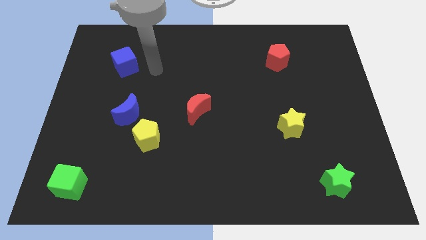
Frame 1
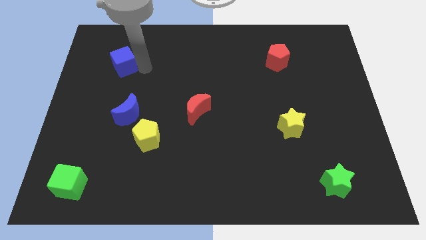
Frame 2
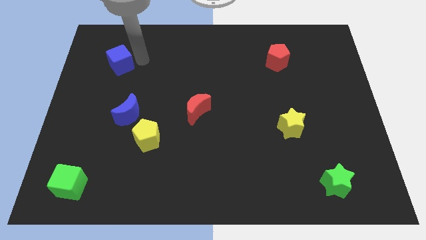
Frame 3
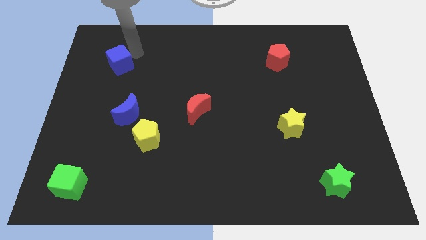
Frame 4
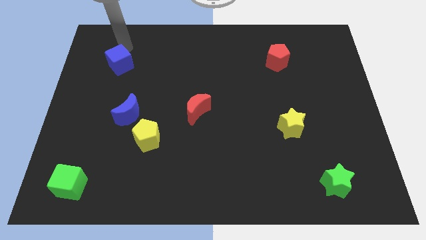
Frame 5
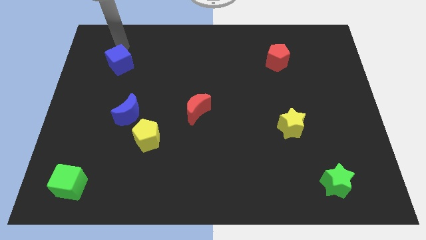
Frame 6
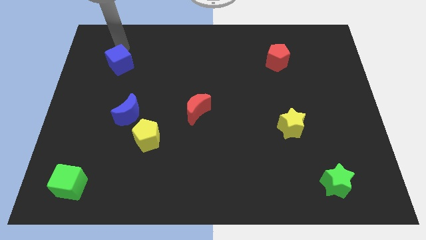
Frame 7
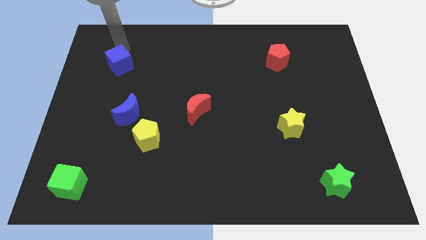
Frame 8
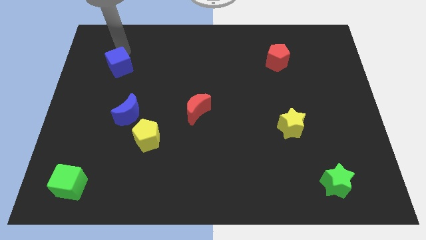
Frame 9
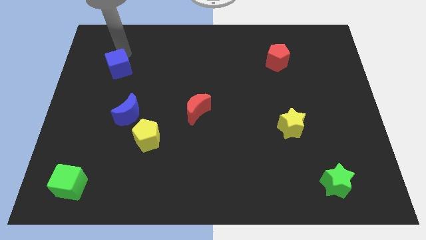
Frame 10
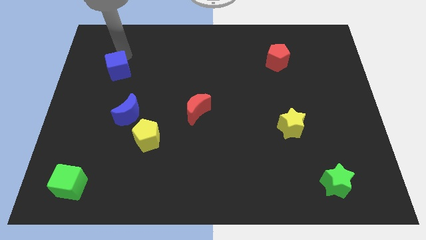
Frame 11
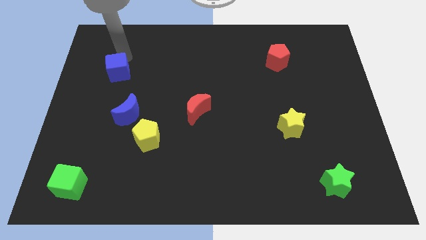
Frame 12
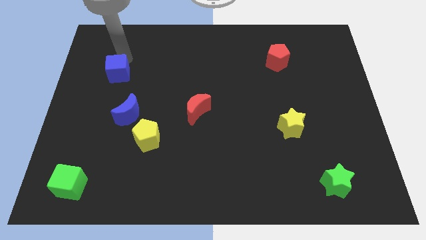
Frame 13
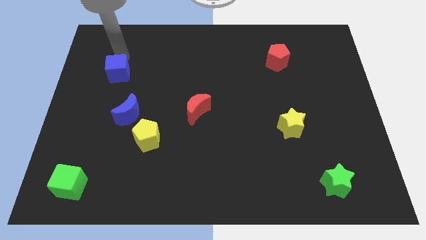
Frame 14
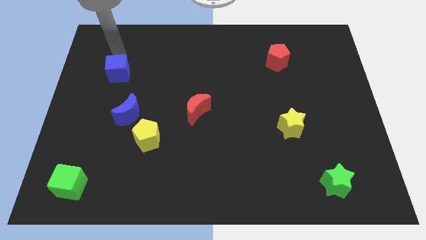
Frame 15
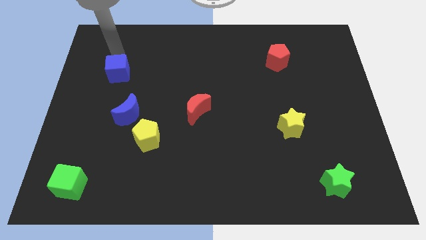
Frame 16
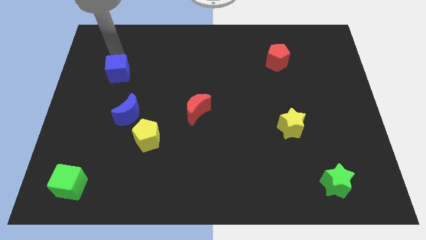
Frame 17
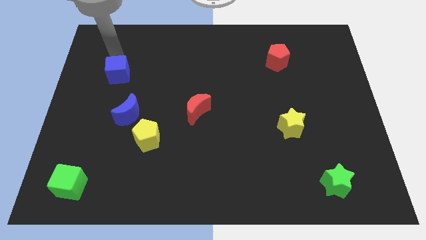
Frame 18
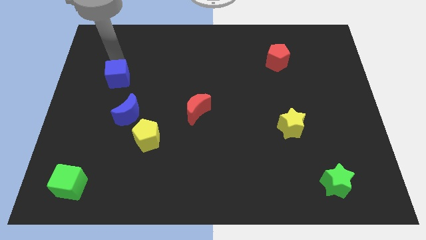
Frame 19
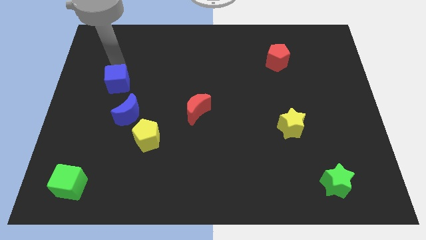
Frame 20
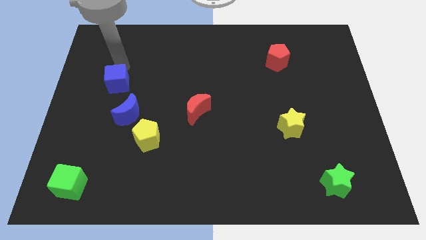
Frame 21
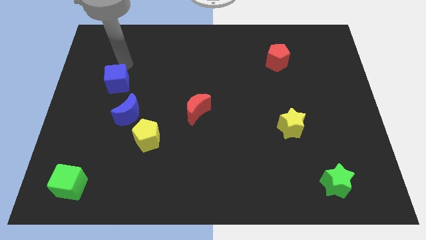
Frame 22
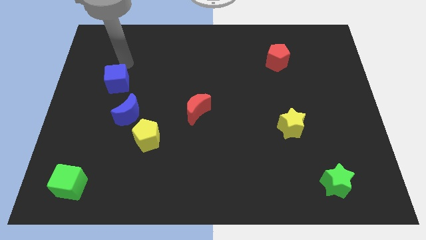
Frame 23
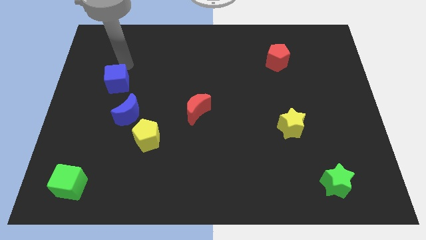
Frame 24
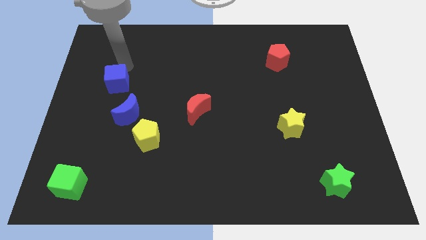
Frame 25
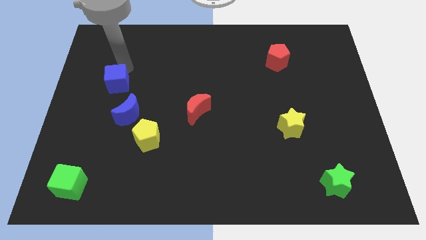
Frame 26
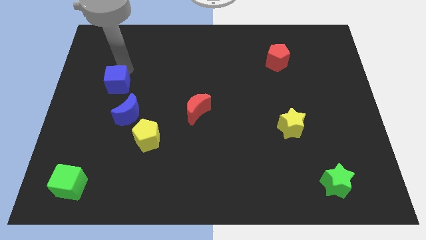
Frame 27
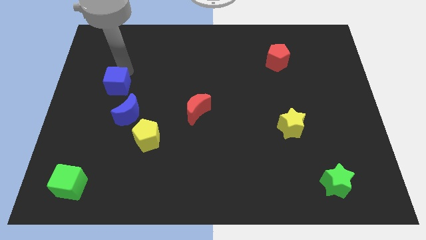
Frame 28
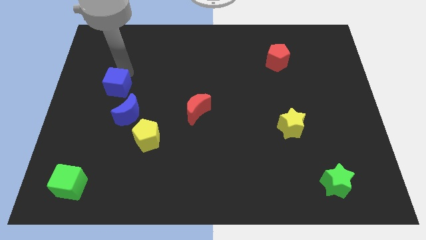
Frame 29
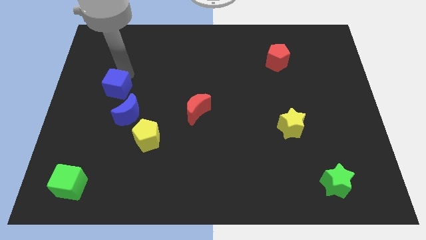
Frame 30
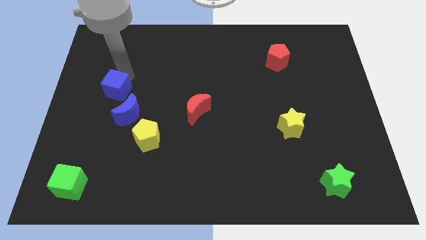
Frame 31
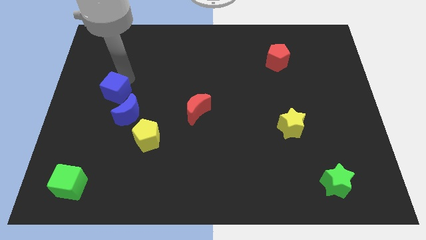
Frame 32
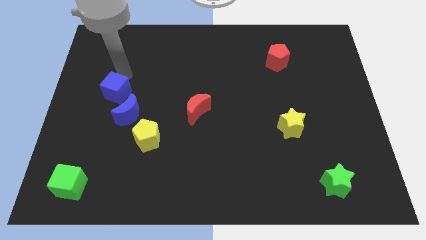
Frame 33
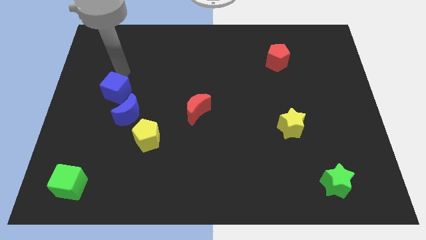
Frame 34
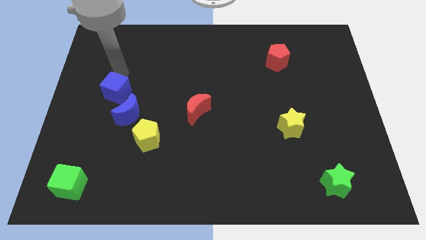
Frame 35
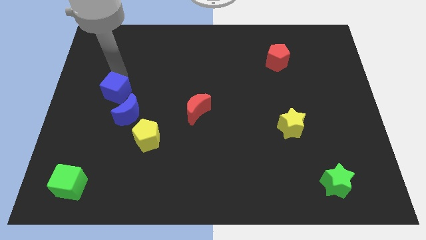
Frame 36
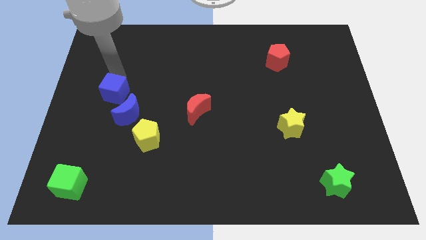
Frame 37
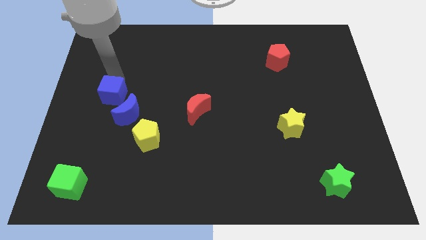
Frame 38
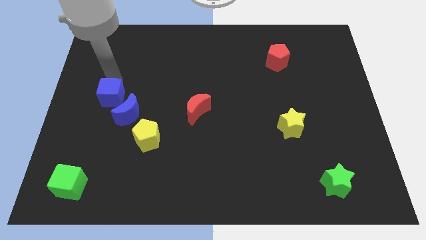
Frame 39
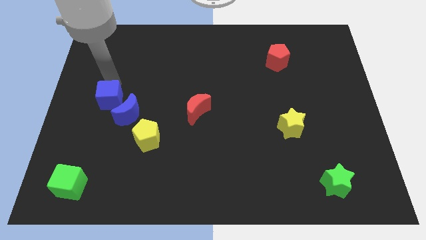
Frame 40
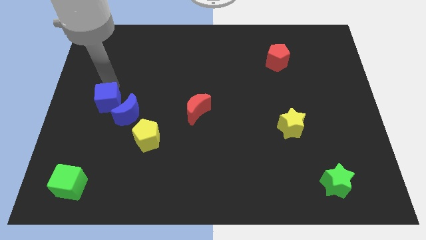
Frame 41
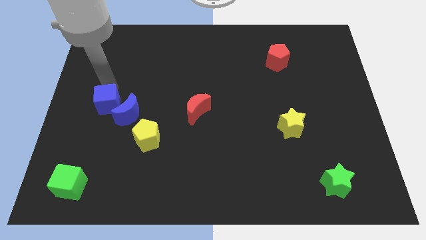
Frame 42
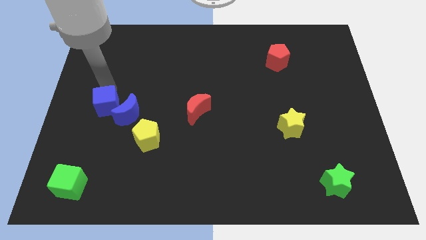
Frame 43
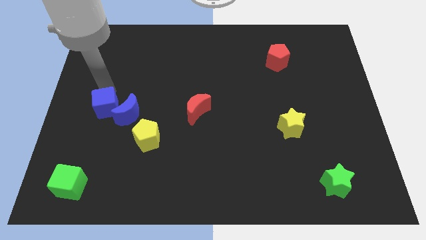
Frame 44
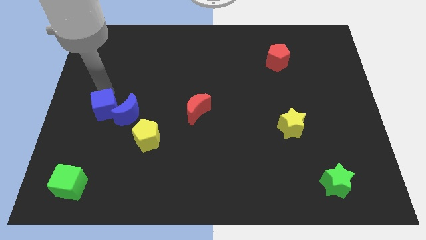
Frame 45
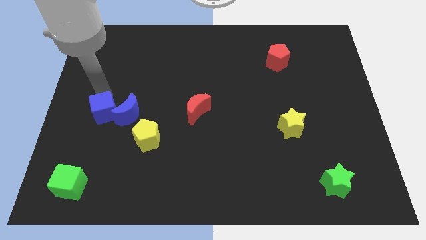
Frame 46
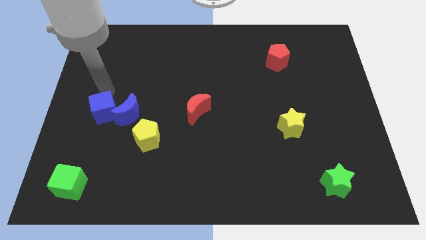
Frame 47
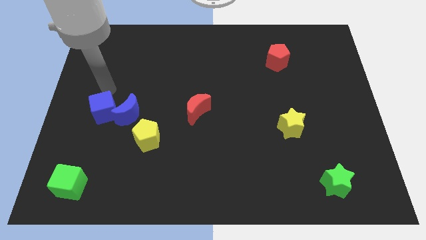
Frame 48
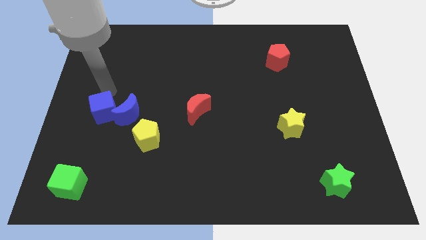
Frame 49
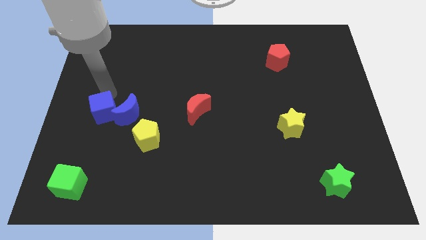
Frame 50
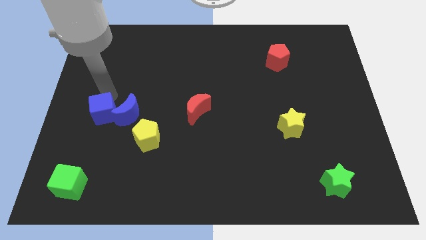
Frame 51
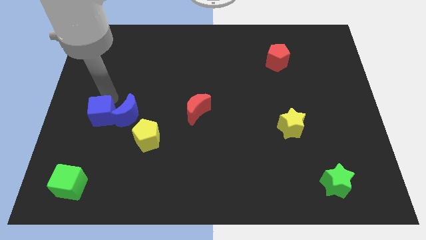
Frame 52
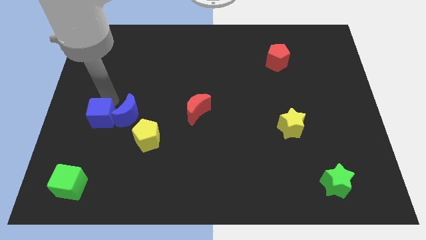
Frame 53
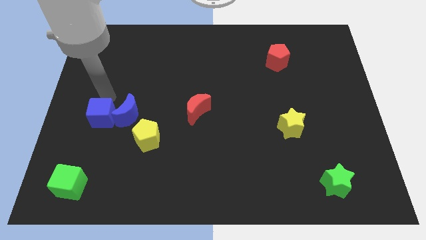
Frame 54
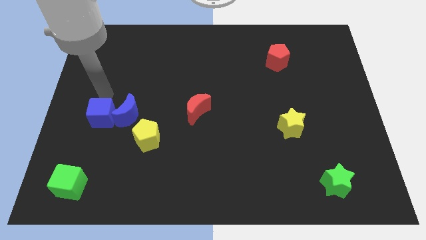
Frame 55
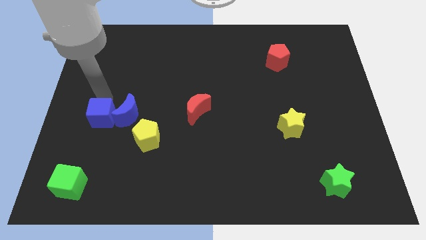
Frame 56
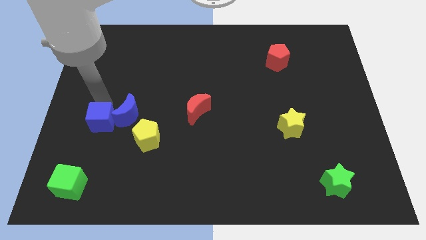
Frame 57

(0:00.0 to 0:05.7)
slide the blue cube left of the yellow pentagon

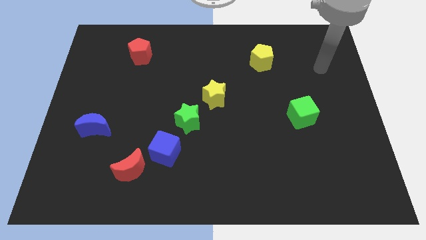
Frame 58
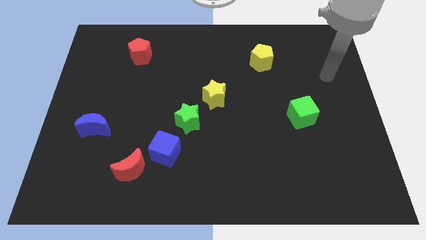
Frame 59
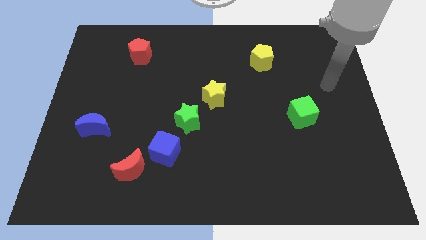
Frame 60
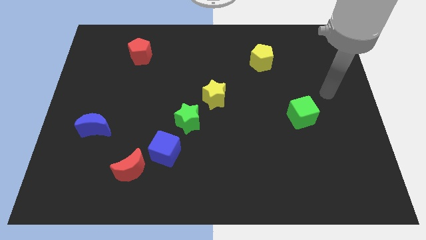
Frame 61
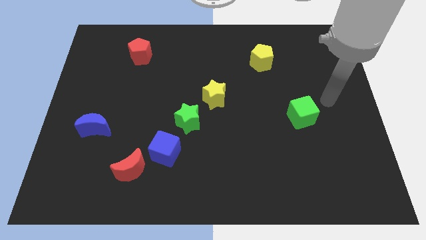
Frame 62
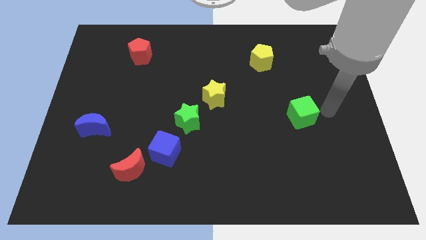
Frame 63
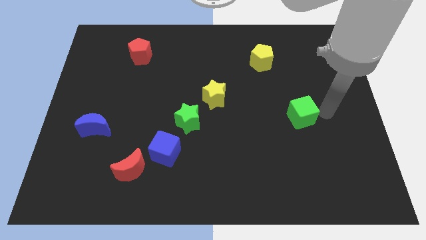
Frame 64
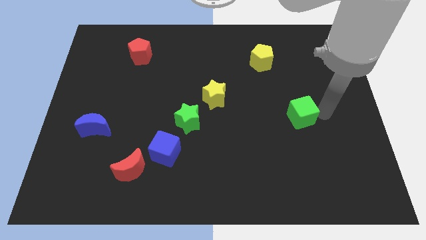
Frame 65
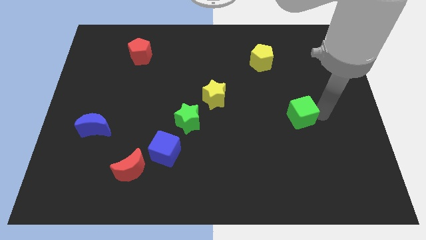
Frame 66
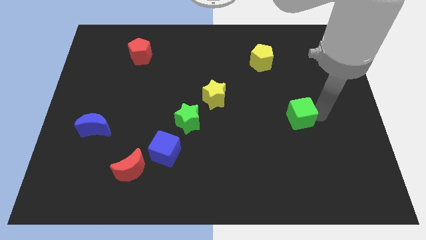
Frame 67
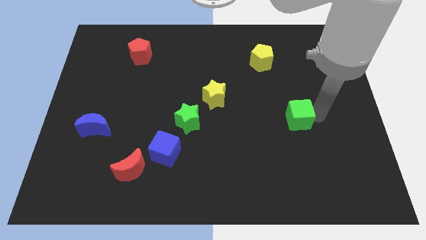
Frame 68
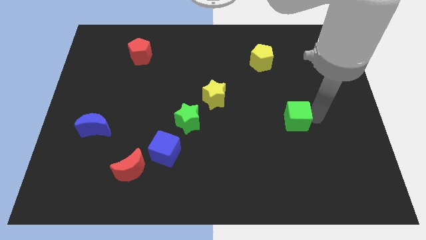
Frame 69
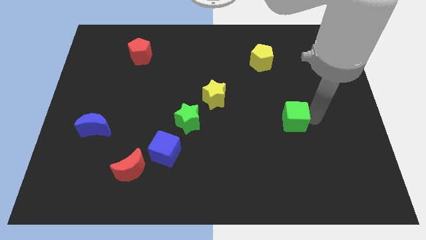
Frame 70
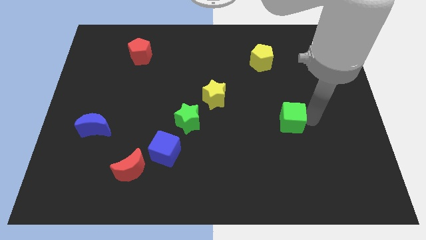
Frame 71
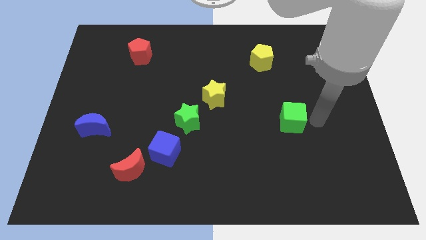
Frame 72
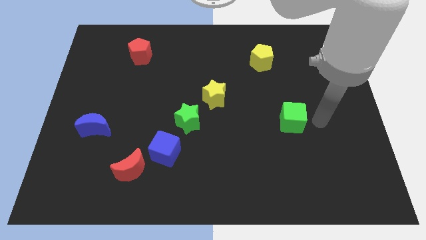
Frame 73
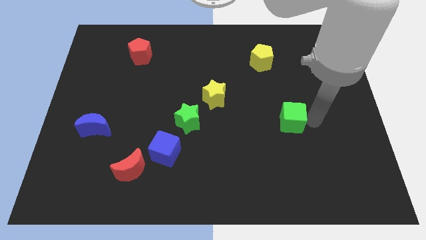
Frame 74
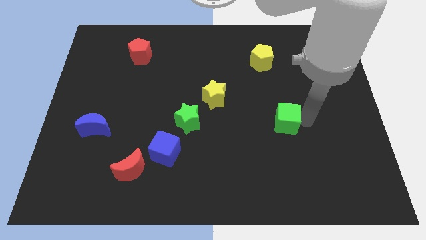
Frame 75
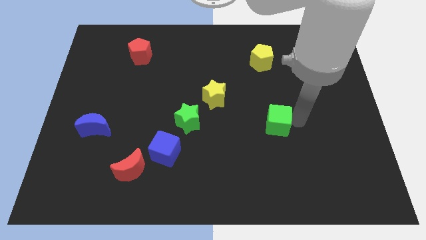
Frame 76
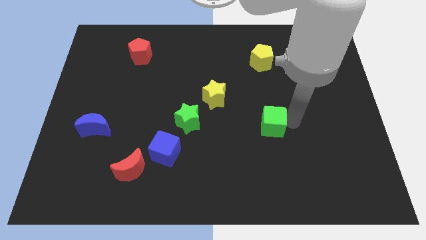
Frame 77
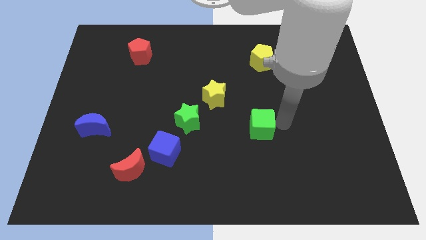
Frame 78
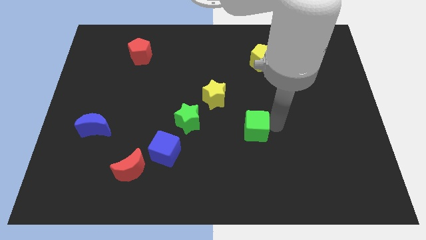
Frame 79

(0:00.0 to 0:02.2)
slide the green cube right of the green star
